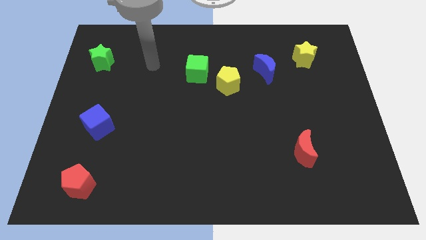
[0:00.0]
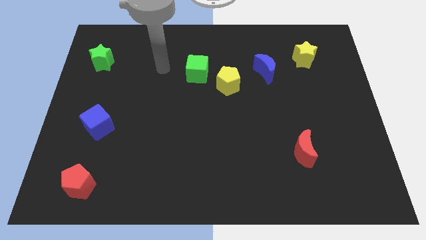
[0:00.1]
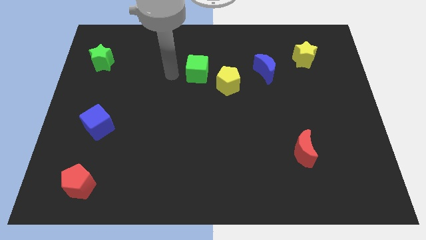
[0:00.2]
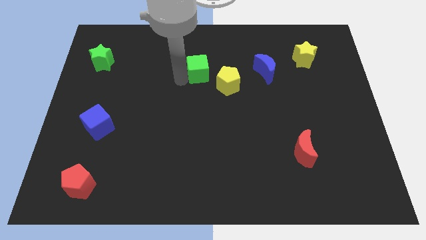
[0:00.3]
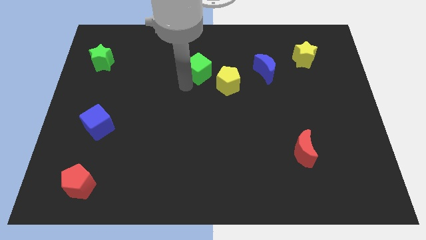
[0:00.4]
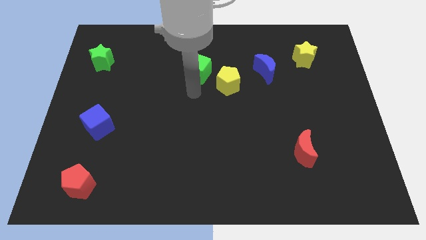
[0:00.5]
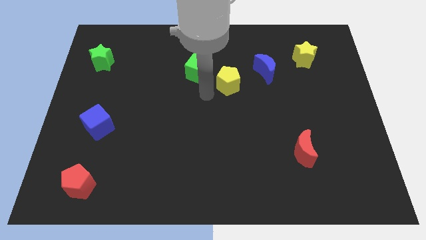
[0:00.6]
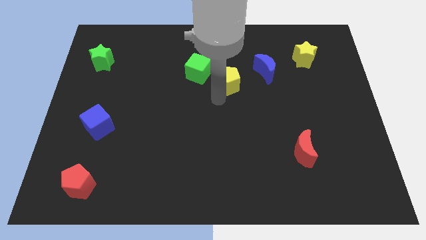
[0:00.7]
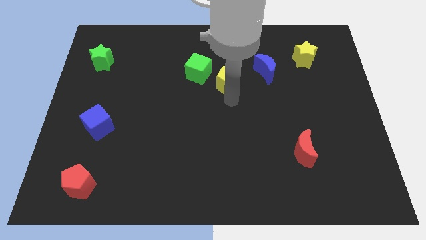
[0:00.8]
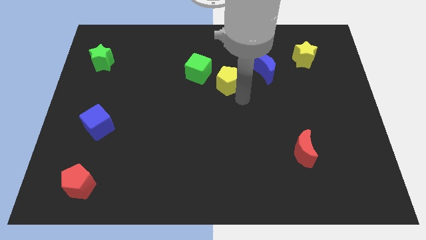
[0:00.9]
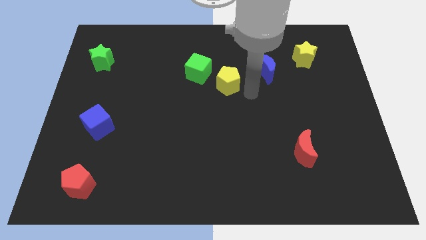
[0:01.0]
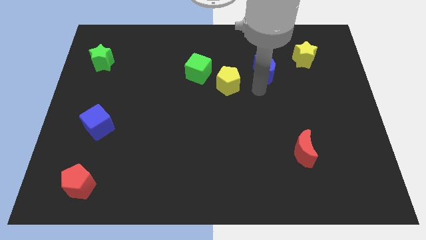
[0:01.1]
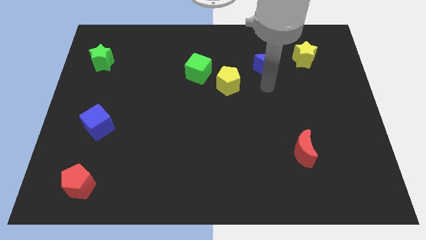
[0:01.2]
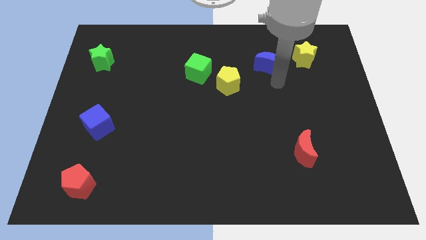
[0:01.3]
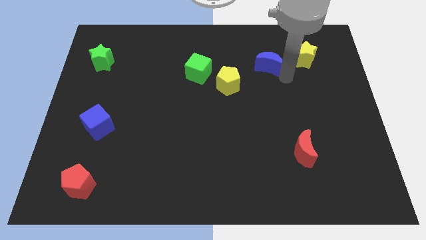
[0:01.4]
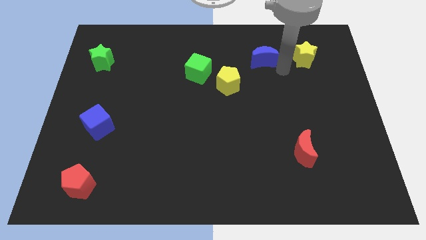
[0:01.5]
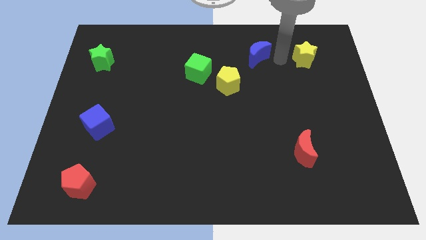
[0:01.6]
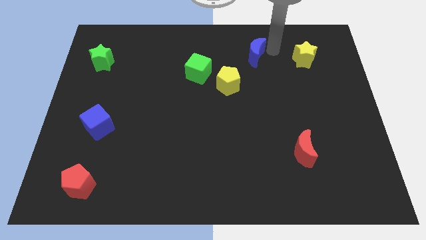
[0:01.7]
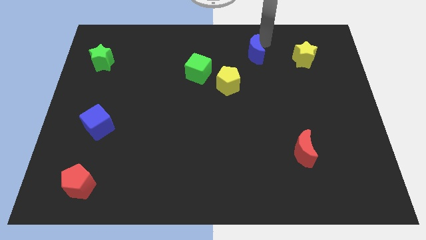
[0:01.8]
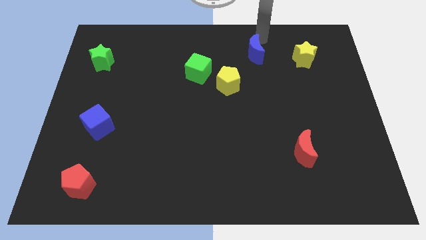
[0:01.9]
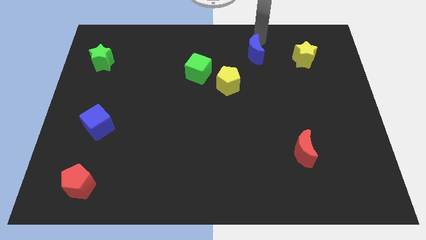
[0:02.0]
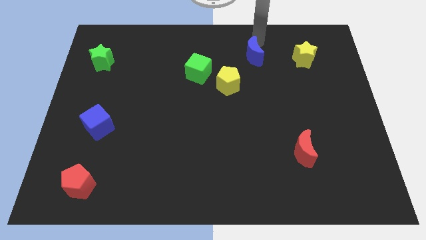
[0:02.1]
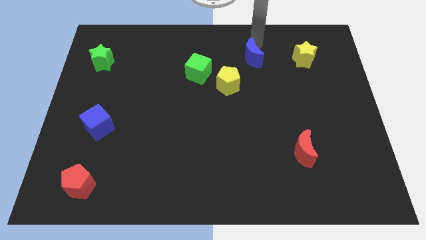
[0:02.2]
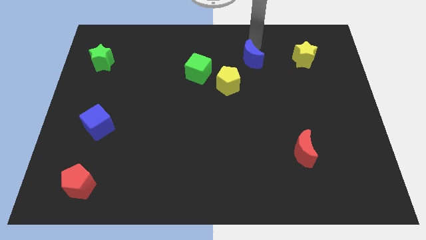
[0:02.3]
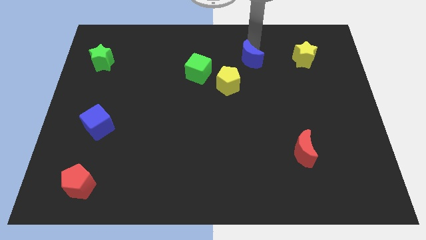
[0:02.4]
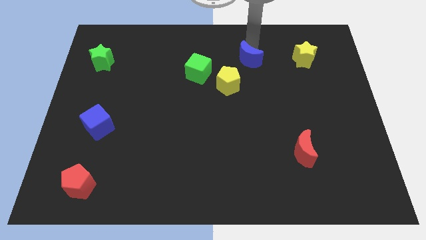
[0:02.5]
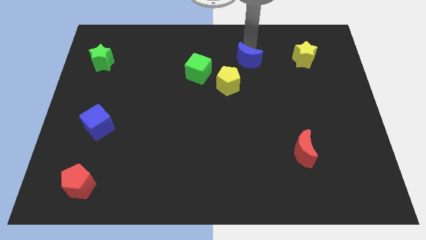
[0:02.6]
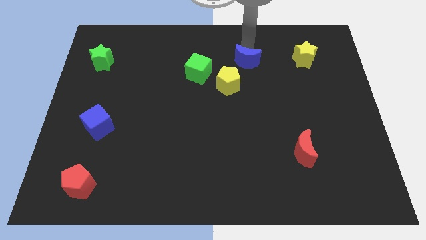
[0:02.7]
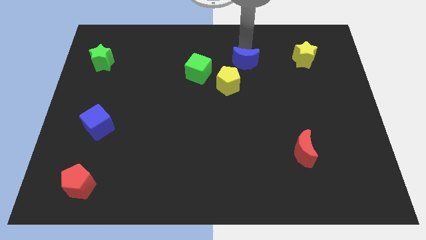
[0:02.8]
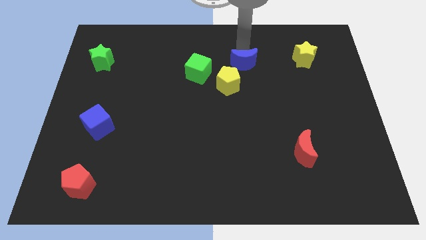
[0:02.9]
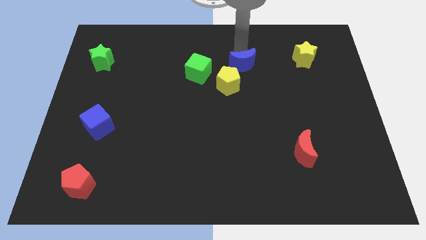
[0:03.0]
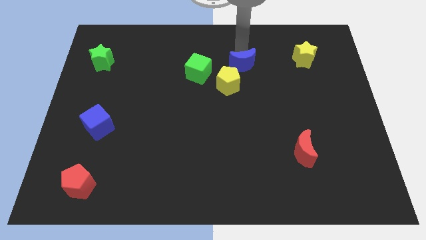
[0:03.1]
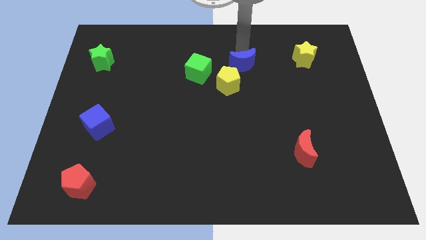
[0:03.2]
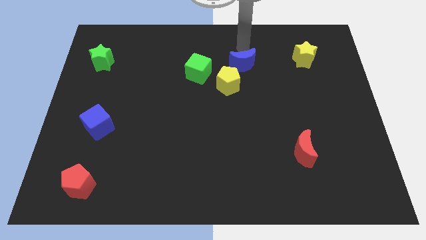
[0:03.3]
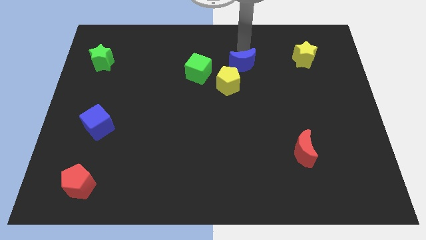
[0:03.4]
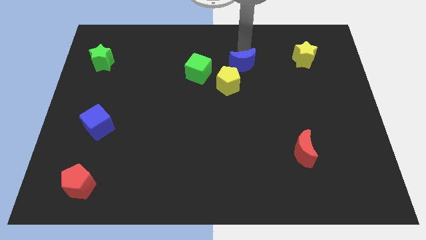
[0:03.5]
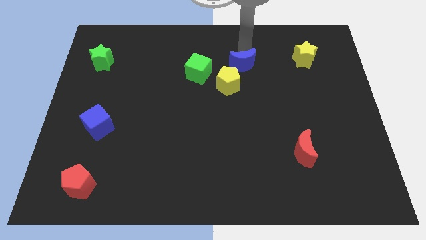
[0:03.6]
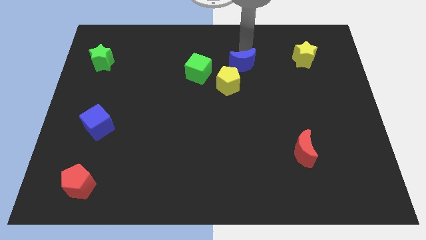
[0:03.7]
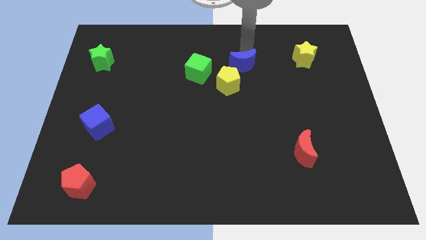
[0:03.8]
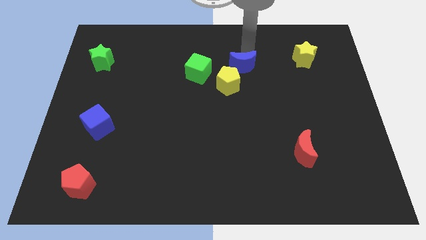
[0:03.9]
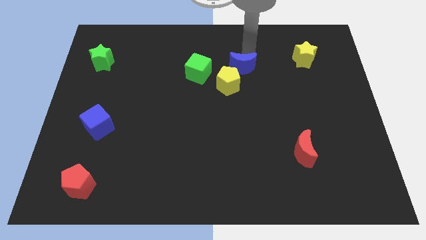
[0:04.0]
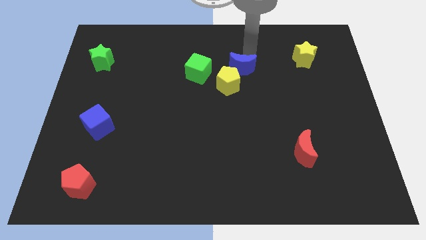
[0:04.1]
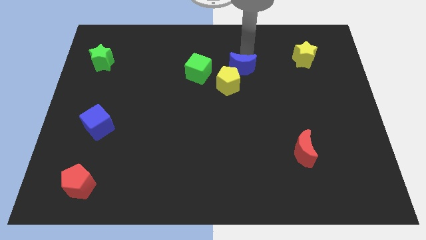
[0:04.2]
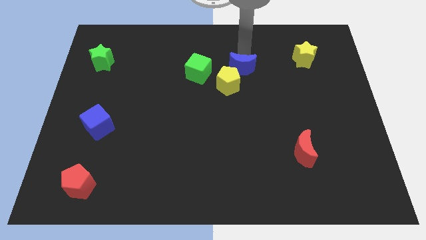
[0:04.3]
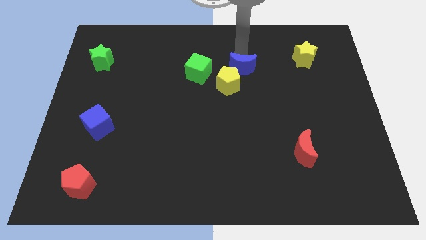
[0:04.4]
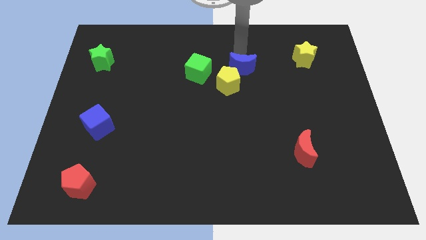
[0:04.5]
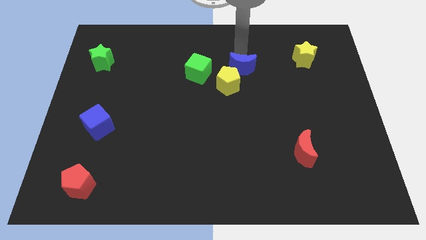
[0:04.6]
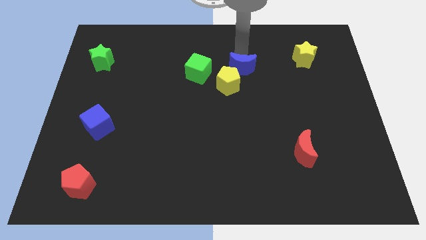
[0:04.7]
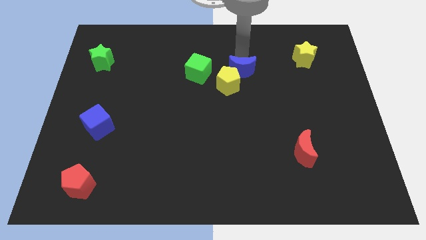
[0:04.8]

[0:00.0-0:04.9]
put the blue moon close to the yellow pentagon

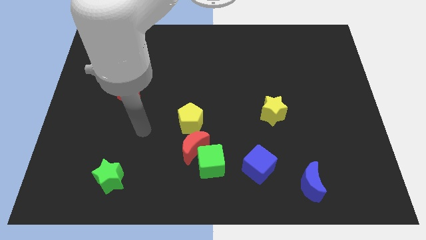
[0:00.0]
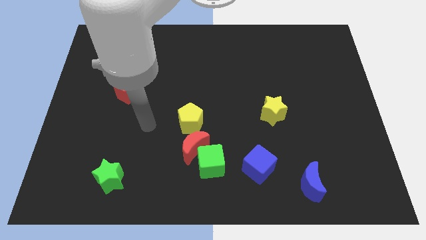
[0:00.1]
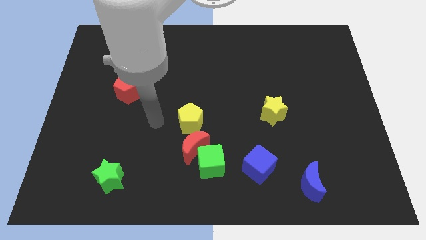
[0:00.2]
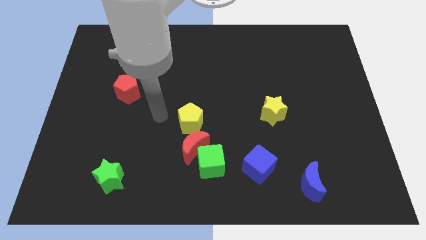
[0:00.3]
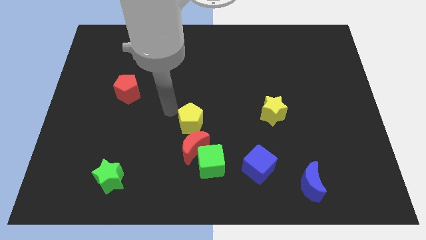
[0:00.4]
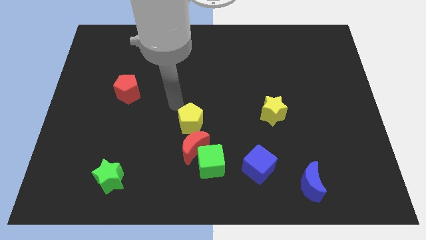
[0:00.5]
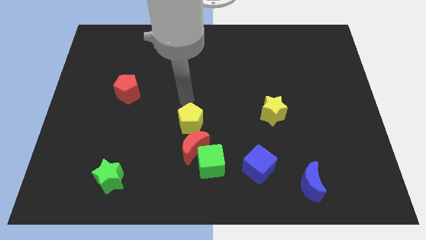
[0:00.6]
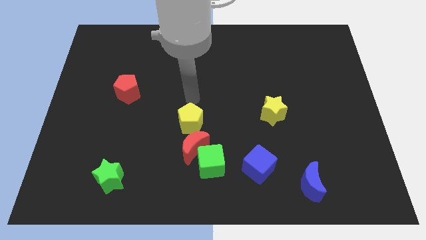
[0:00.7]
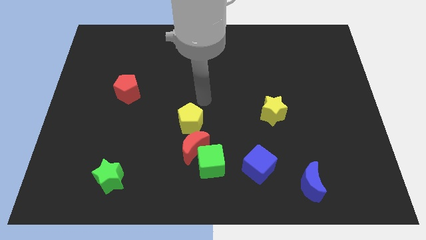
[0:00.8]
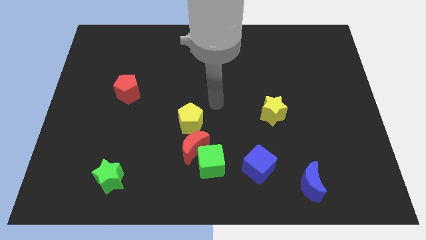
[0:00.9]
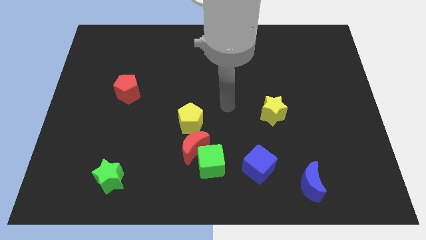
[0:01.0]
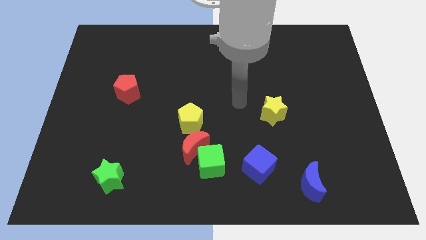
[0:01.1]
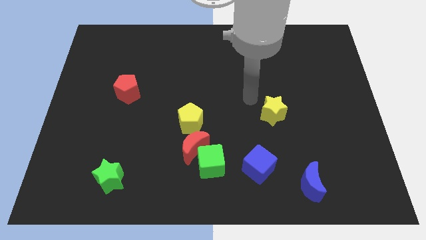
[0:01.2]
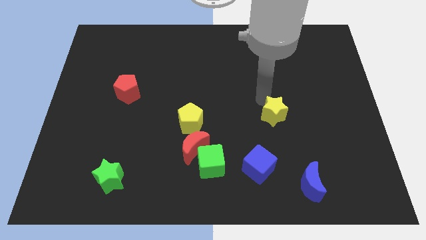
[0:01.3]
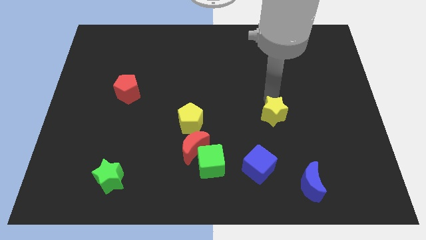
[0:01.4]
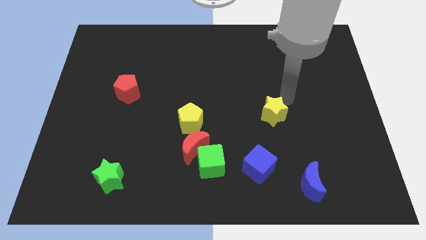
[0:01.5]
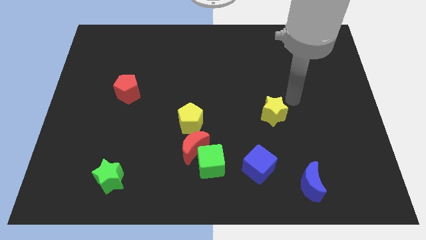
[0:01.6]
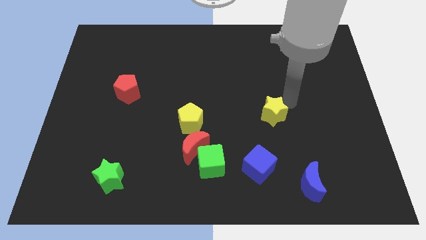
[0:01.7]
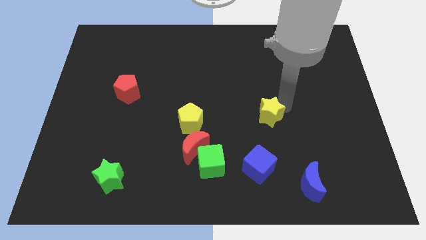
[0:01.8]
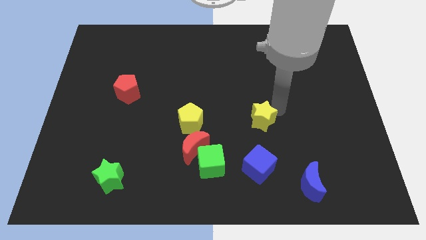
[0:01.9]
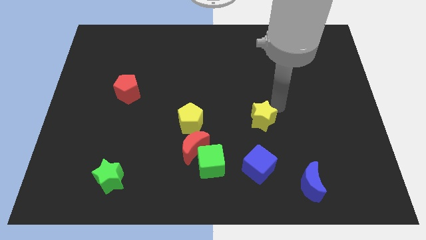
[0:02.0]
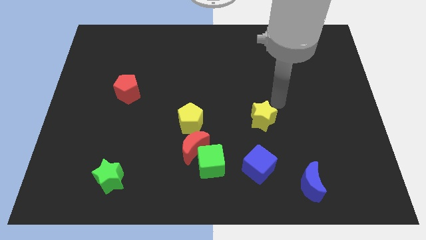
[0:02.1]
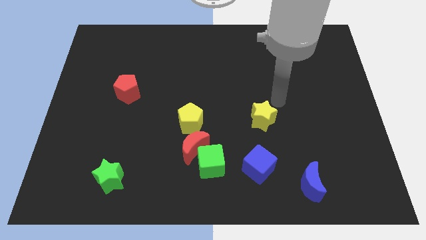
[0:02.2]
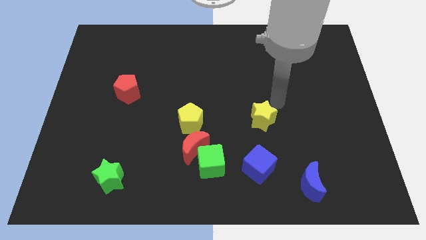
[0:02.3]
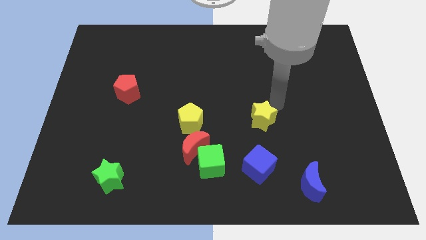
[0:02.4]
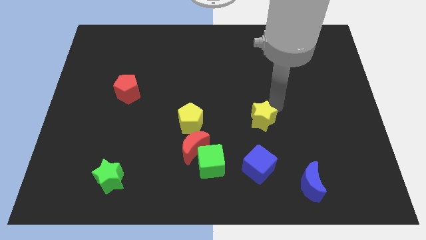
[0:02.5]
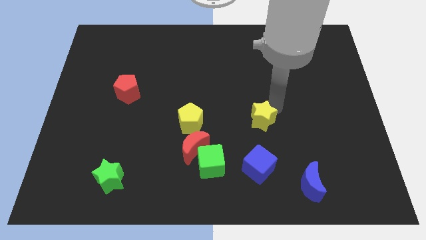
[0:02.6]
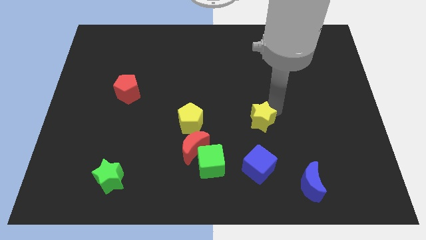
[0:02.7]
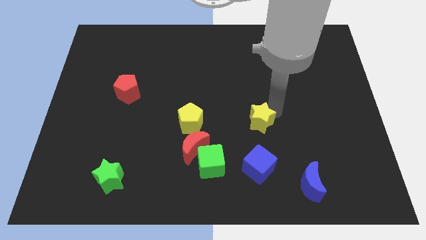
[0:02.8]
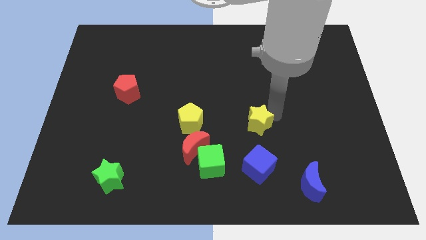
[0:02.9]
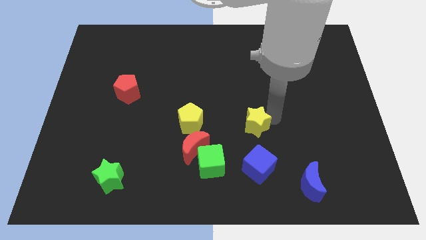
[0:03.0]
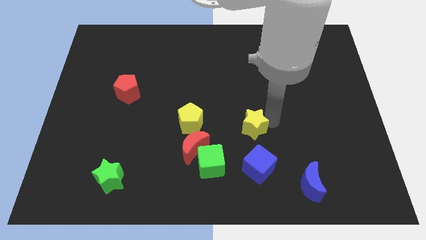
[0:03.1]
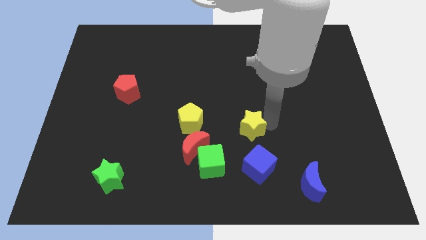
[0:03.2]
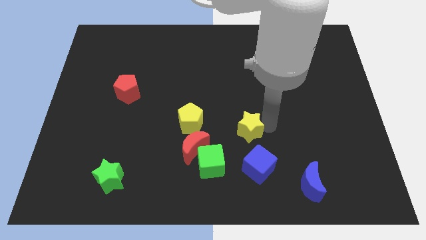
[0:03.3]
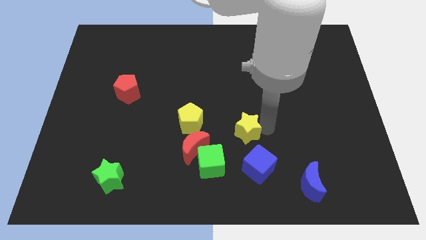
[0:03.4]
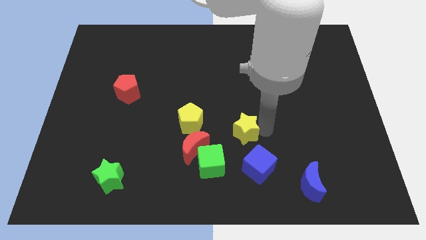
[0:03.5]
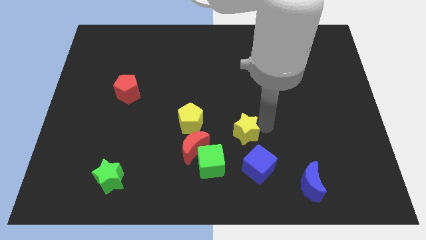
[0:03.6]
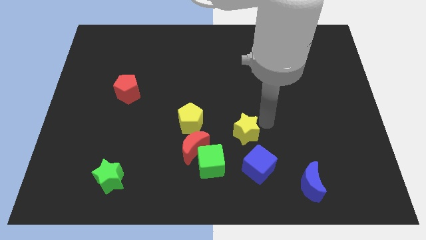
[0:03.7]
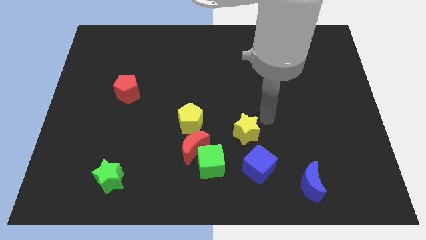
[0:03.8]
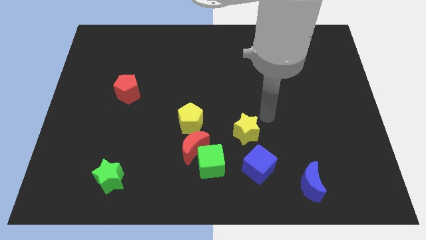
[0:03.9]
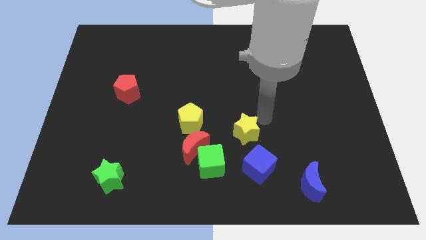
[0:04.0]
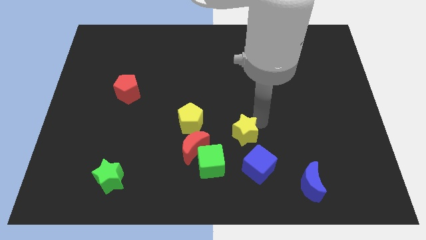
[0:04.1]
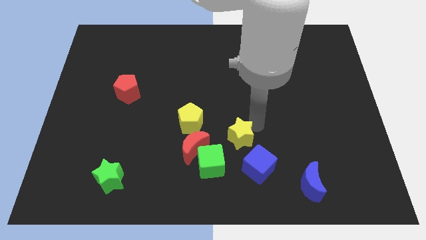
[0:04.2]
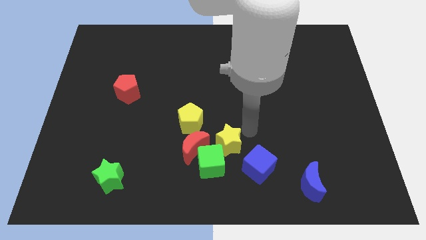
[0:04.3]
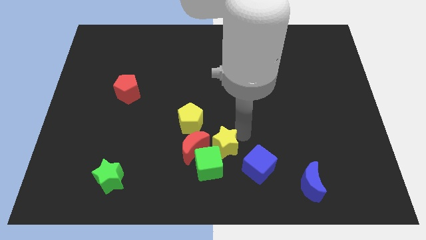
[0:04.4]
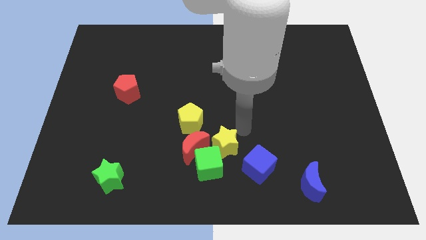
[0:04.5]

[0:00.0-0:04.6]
push the yellow star next to the green cube
